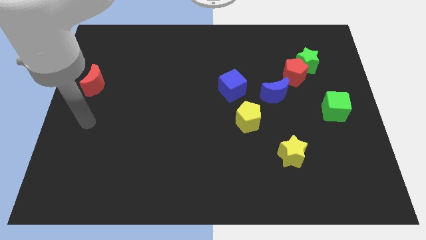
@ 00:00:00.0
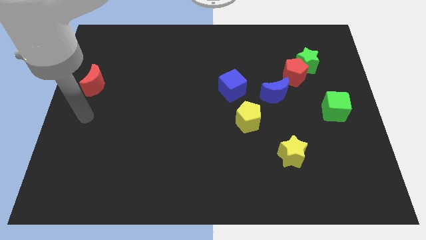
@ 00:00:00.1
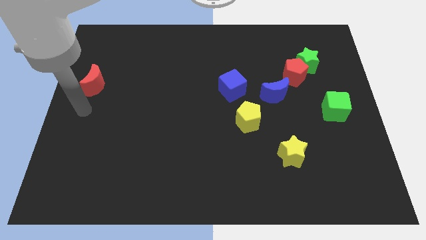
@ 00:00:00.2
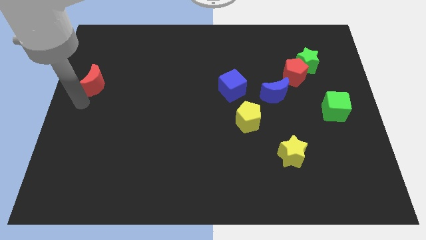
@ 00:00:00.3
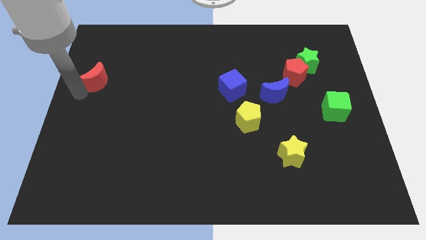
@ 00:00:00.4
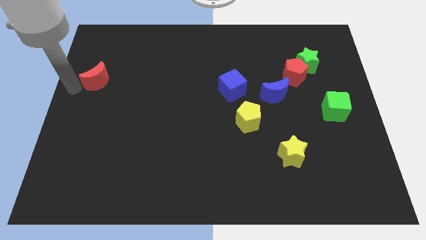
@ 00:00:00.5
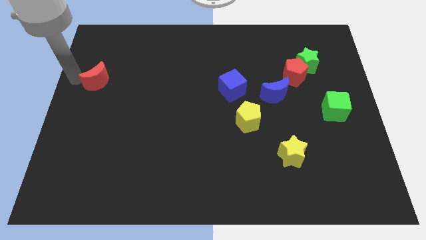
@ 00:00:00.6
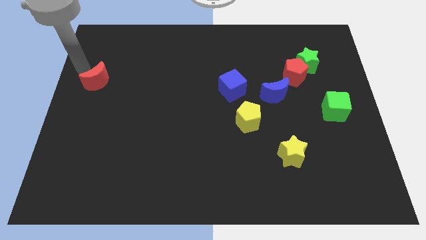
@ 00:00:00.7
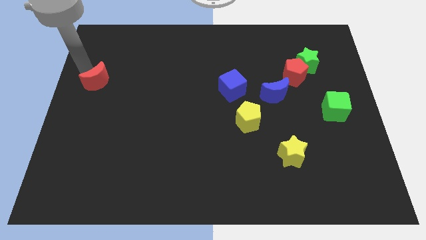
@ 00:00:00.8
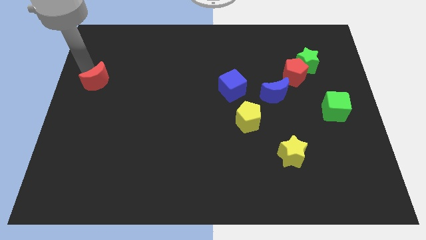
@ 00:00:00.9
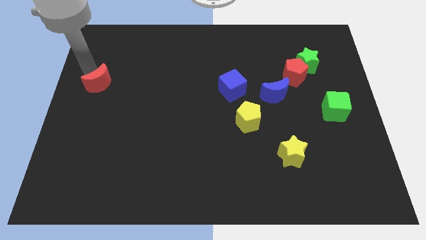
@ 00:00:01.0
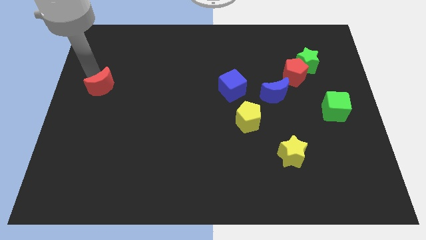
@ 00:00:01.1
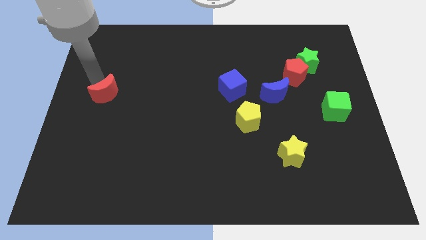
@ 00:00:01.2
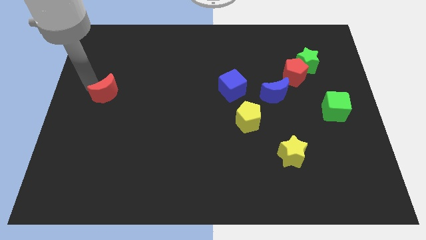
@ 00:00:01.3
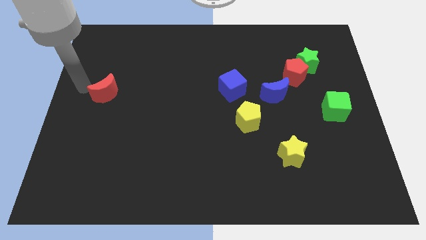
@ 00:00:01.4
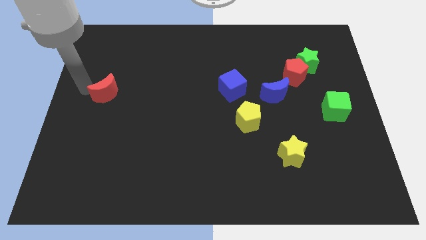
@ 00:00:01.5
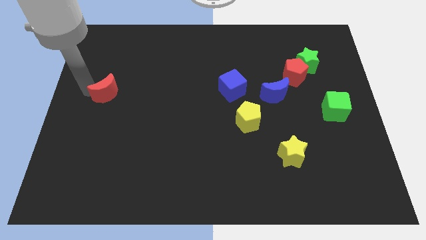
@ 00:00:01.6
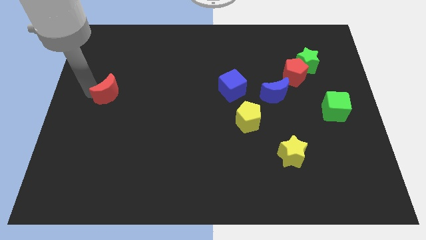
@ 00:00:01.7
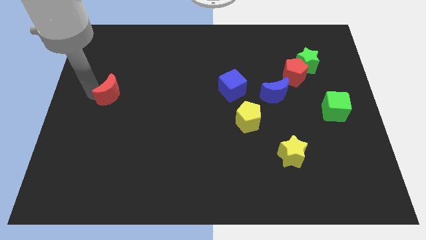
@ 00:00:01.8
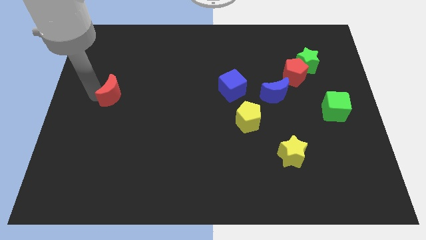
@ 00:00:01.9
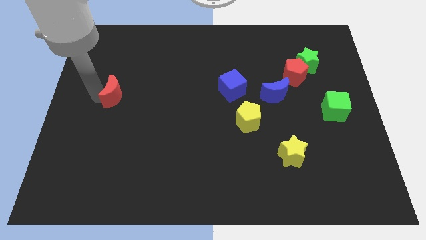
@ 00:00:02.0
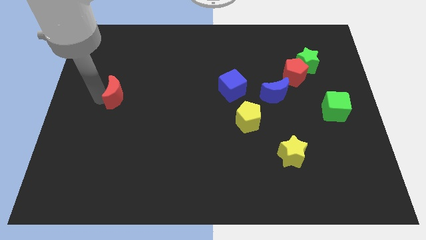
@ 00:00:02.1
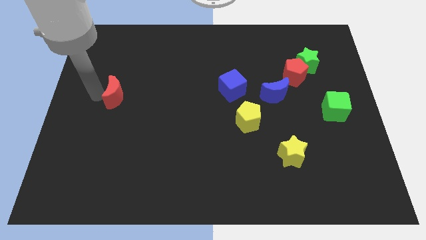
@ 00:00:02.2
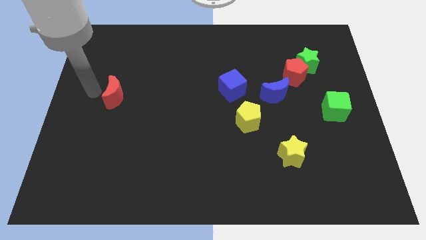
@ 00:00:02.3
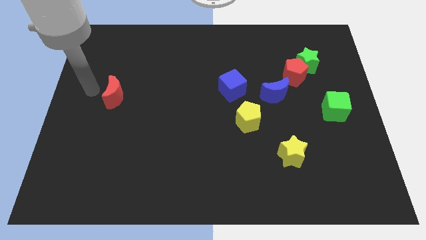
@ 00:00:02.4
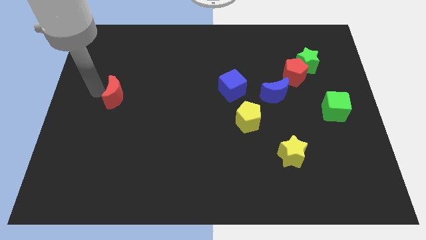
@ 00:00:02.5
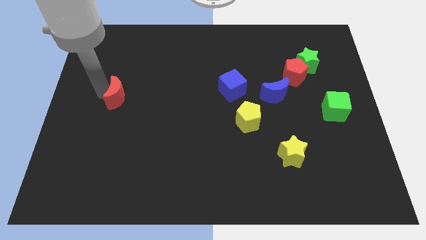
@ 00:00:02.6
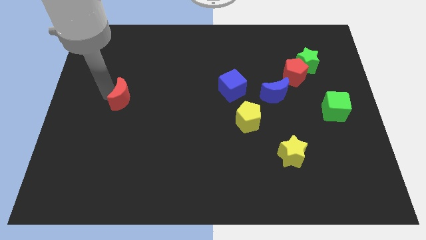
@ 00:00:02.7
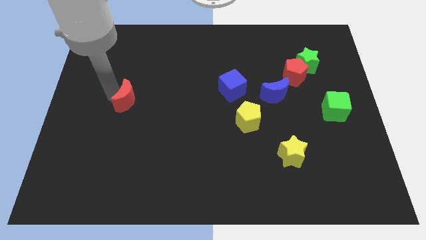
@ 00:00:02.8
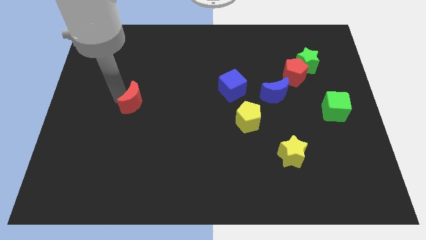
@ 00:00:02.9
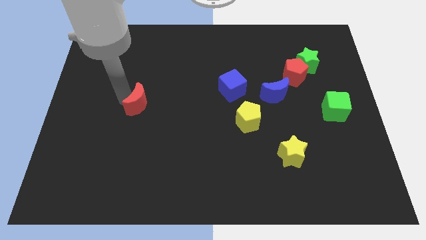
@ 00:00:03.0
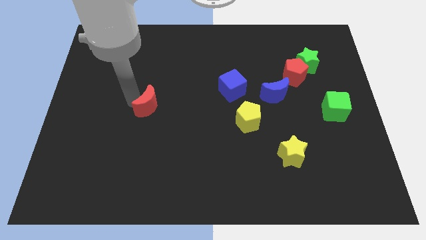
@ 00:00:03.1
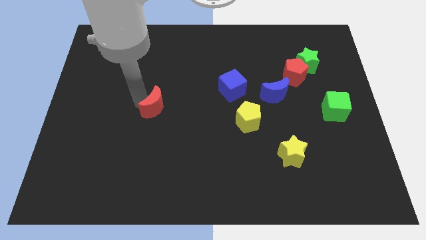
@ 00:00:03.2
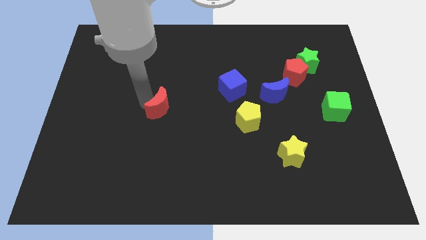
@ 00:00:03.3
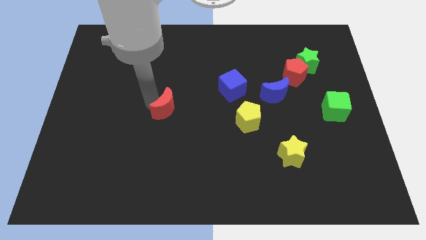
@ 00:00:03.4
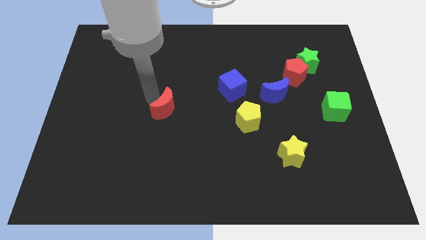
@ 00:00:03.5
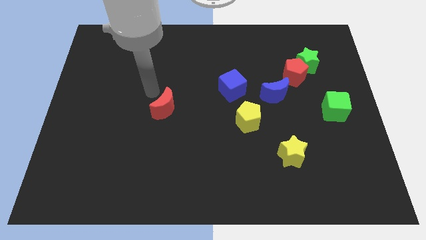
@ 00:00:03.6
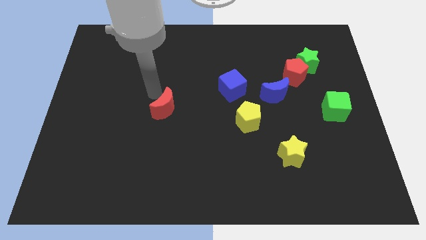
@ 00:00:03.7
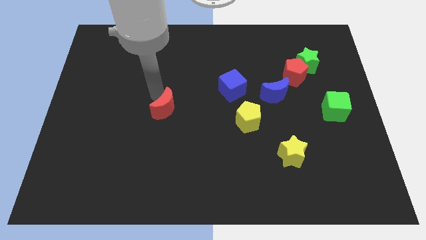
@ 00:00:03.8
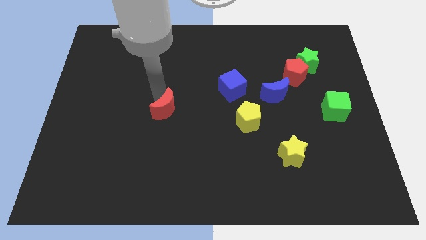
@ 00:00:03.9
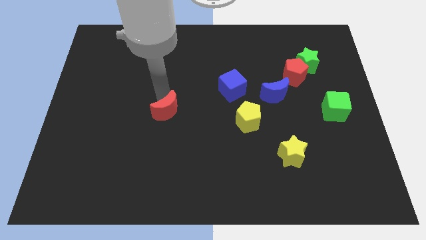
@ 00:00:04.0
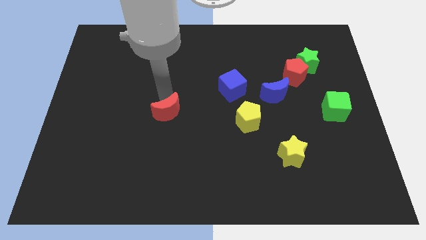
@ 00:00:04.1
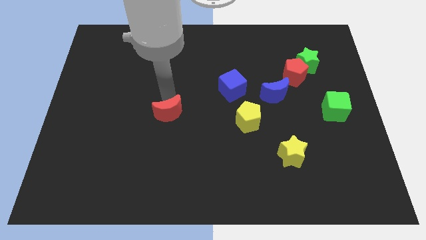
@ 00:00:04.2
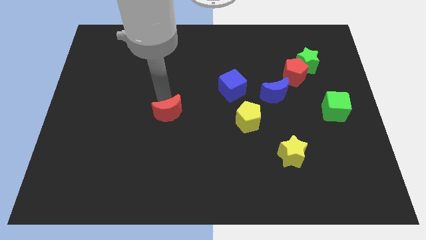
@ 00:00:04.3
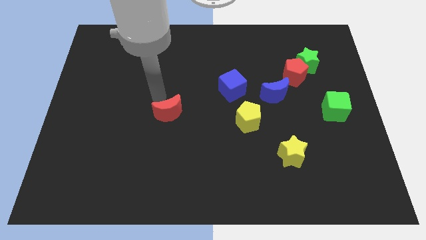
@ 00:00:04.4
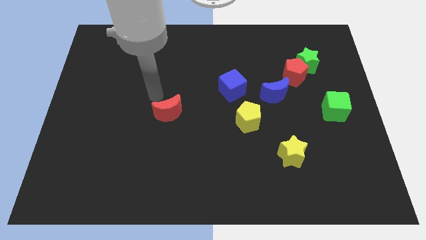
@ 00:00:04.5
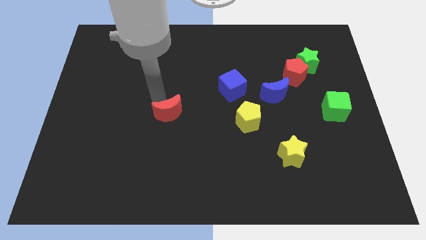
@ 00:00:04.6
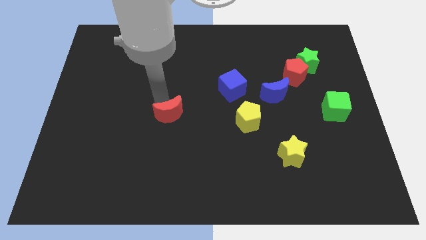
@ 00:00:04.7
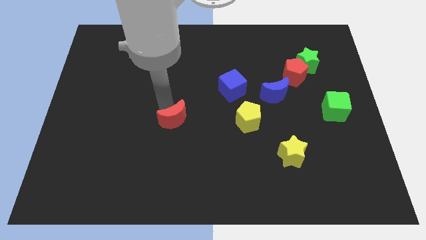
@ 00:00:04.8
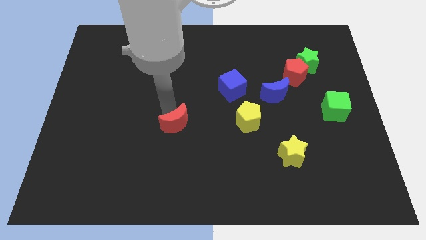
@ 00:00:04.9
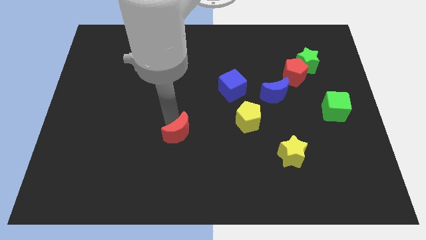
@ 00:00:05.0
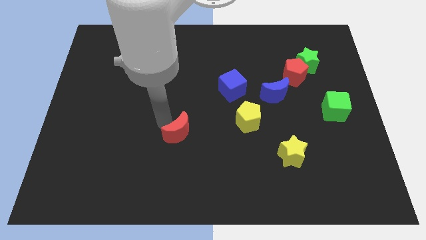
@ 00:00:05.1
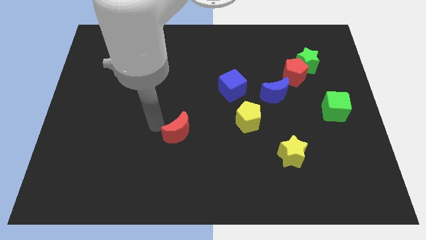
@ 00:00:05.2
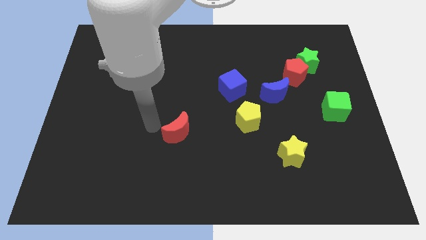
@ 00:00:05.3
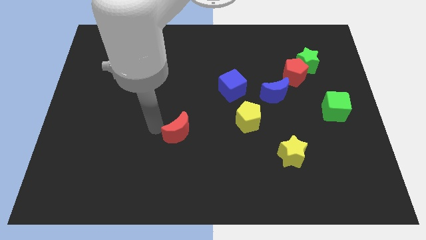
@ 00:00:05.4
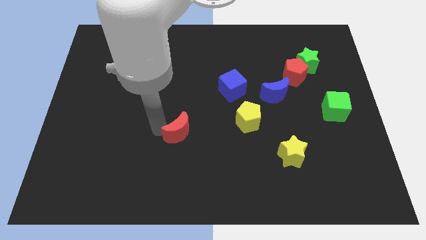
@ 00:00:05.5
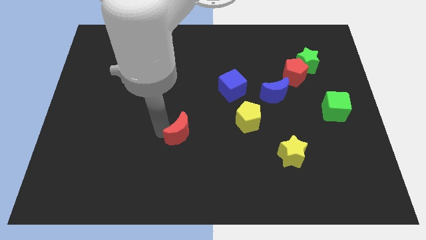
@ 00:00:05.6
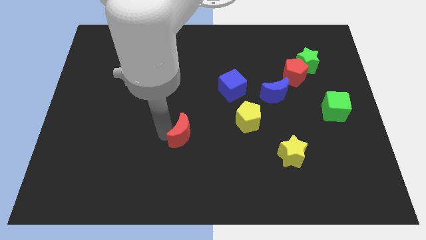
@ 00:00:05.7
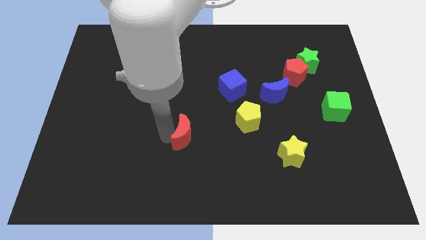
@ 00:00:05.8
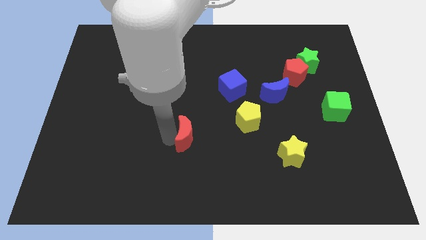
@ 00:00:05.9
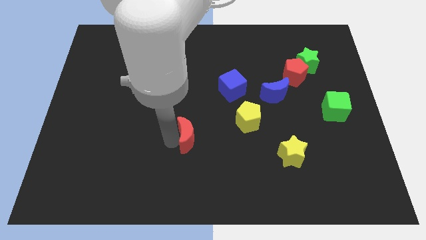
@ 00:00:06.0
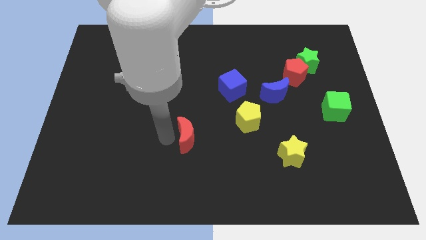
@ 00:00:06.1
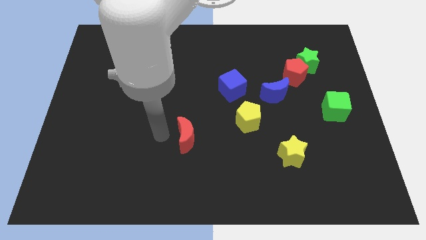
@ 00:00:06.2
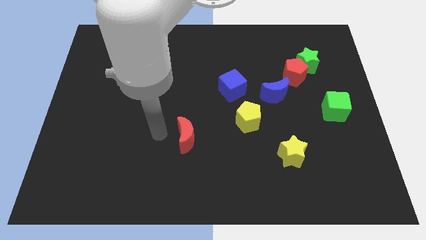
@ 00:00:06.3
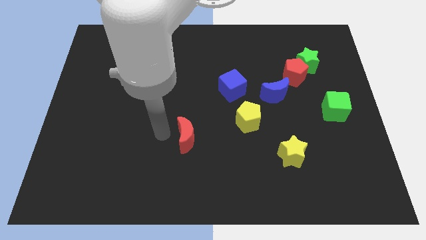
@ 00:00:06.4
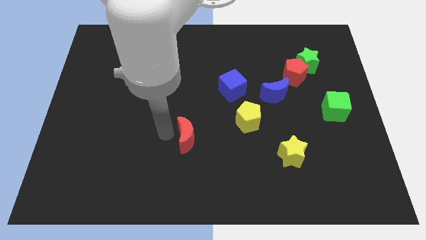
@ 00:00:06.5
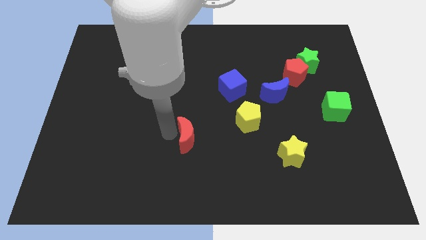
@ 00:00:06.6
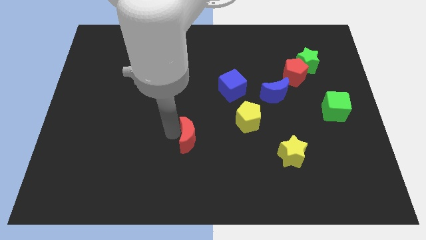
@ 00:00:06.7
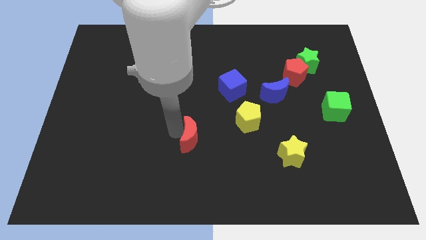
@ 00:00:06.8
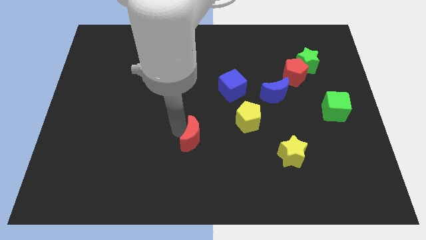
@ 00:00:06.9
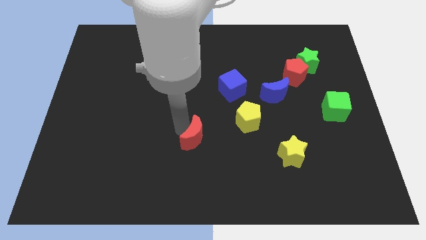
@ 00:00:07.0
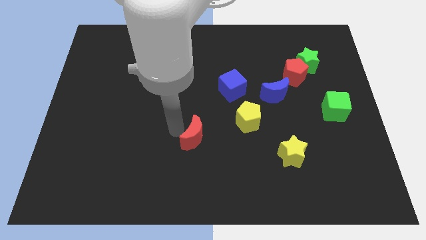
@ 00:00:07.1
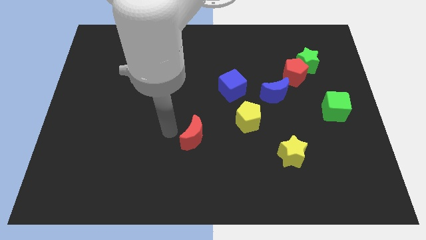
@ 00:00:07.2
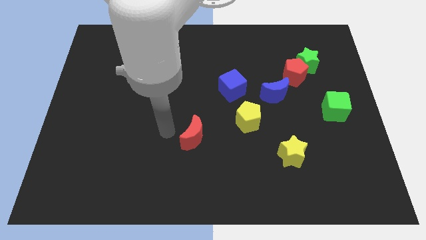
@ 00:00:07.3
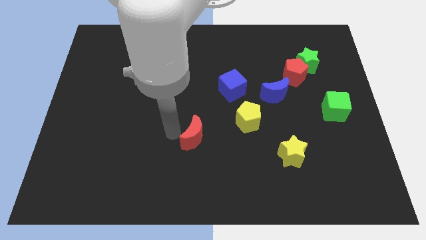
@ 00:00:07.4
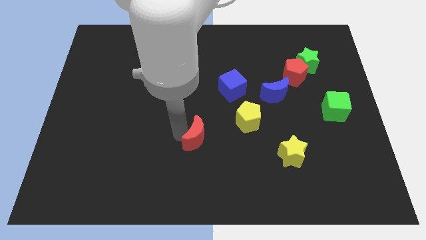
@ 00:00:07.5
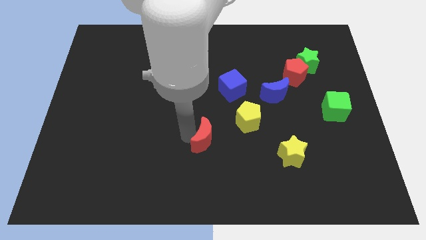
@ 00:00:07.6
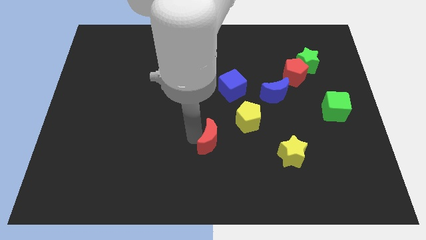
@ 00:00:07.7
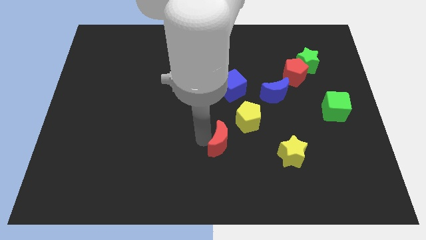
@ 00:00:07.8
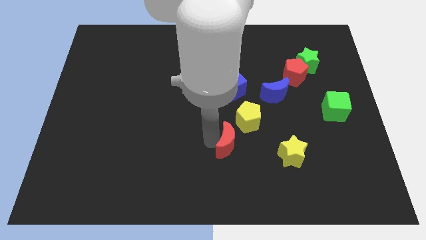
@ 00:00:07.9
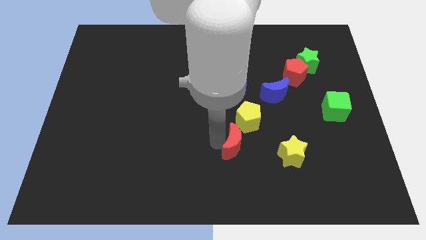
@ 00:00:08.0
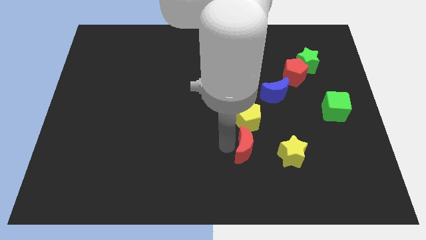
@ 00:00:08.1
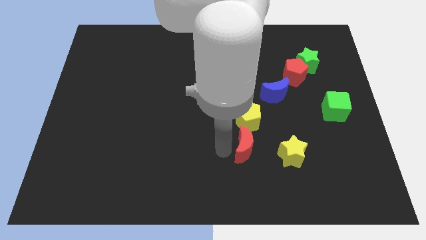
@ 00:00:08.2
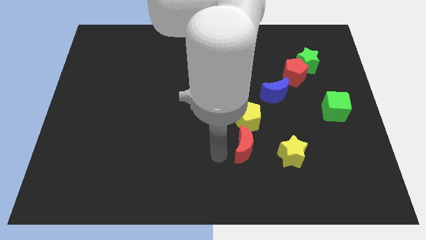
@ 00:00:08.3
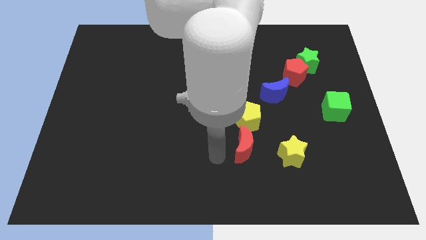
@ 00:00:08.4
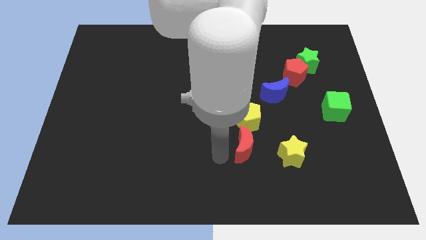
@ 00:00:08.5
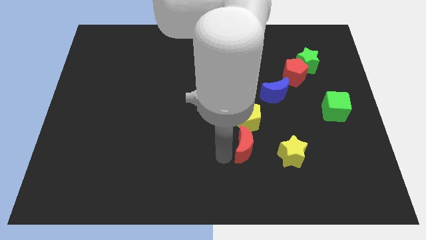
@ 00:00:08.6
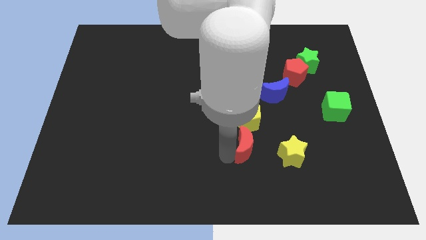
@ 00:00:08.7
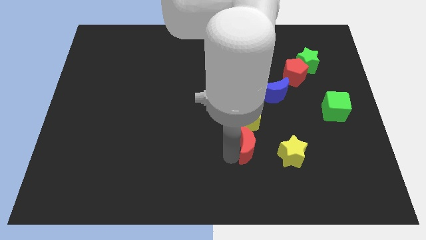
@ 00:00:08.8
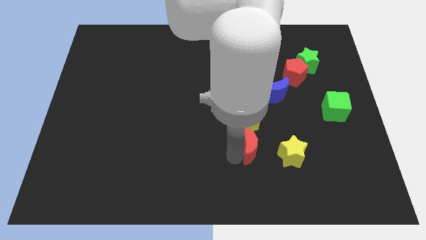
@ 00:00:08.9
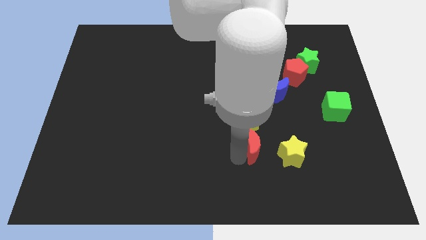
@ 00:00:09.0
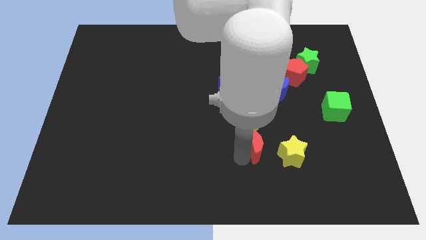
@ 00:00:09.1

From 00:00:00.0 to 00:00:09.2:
put the red moon to the bottom right side of the yellow pentagon
